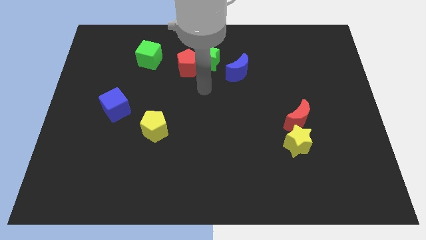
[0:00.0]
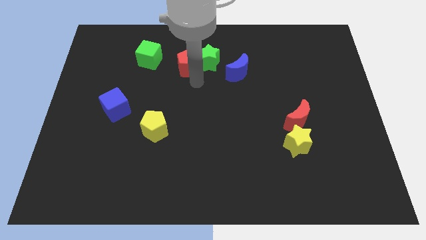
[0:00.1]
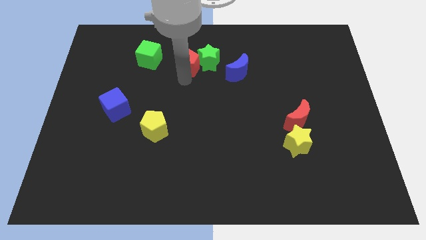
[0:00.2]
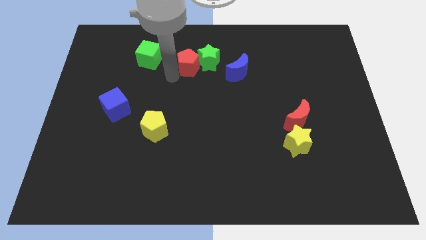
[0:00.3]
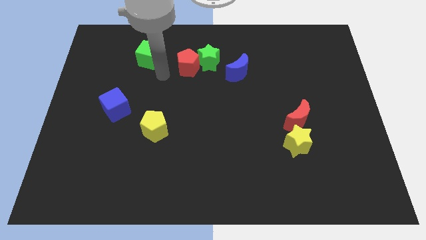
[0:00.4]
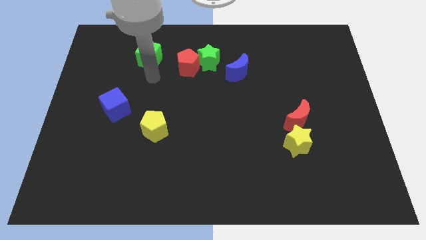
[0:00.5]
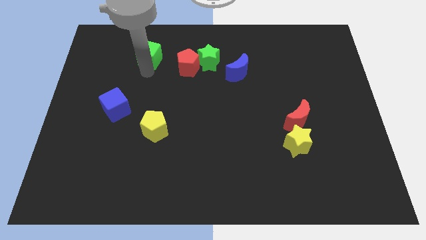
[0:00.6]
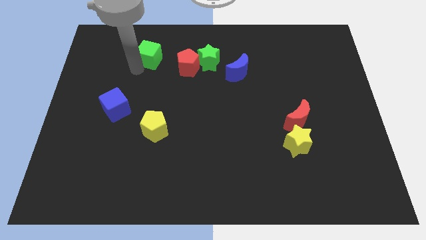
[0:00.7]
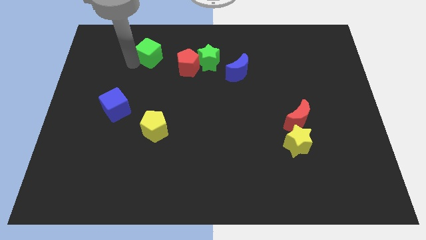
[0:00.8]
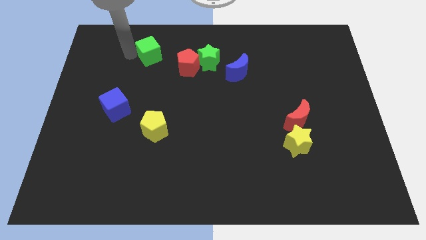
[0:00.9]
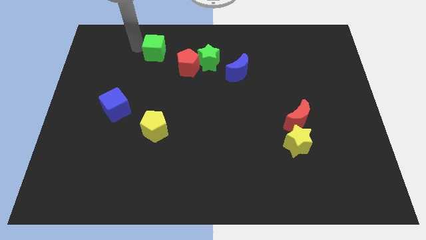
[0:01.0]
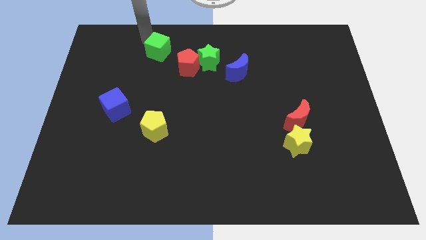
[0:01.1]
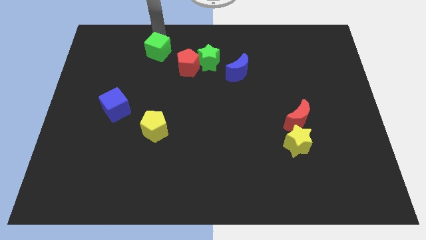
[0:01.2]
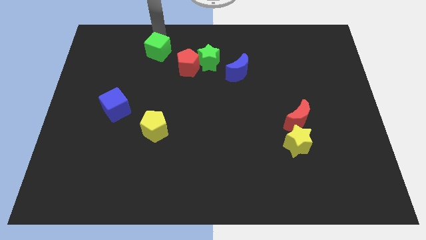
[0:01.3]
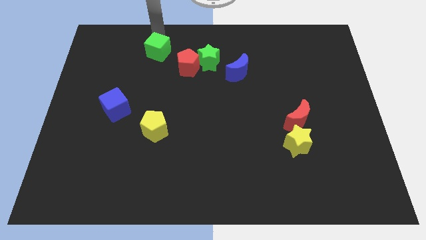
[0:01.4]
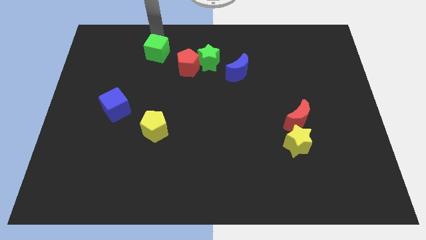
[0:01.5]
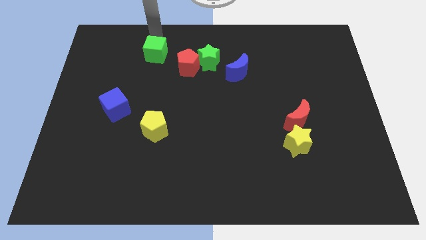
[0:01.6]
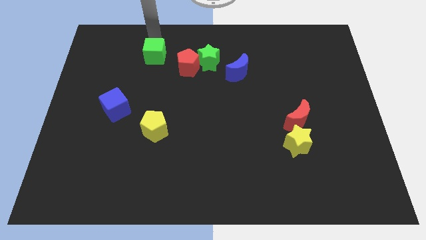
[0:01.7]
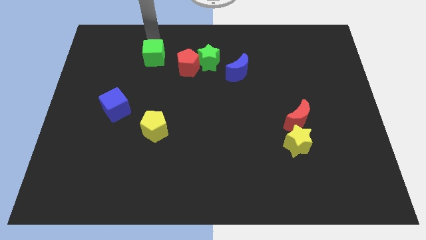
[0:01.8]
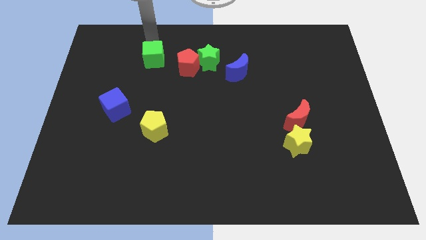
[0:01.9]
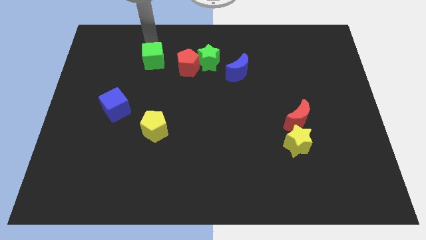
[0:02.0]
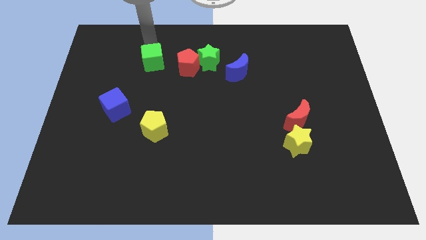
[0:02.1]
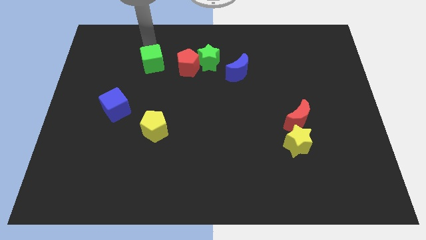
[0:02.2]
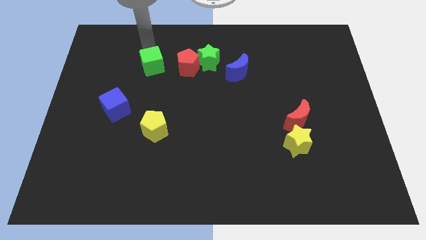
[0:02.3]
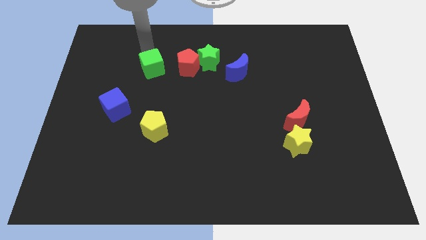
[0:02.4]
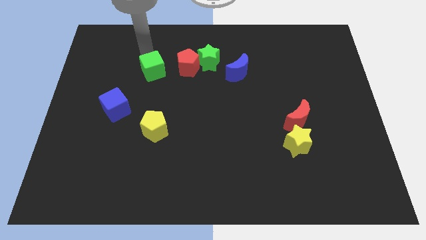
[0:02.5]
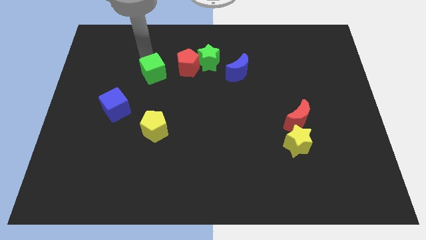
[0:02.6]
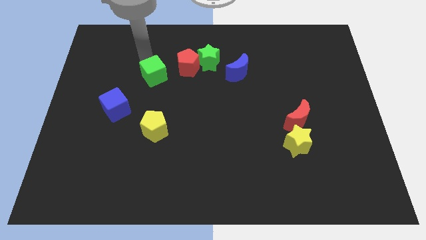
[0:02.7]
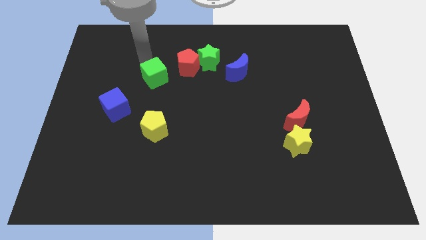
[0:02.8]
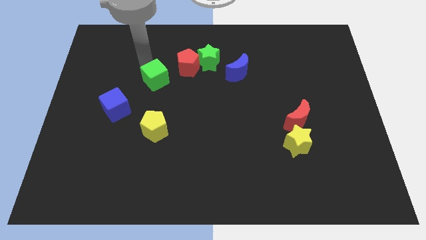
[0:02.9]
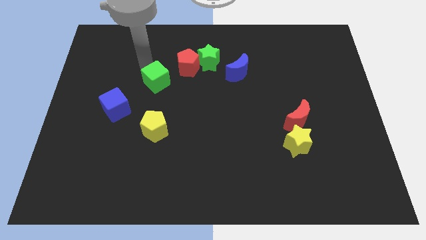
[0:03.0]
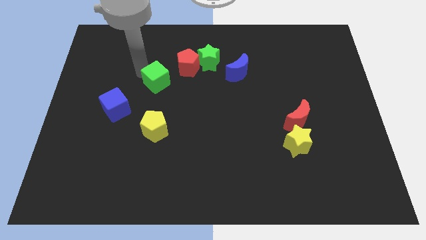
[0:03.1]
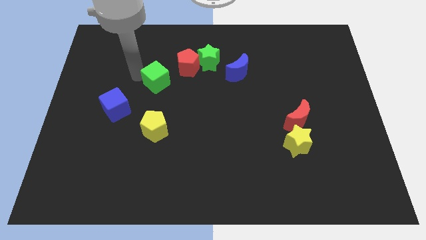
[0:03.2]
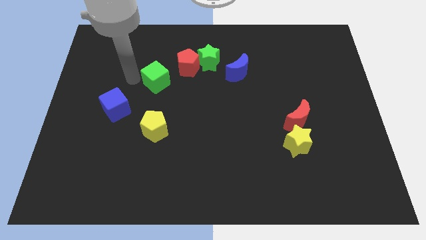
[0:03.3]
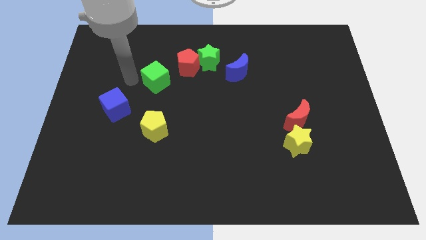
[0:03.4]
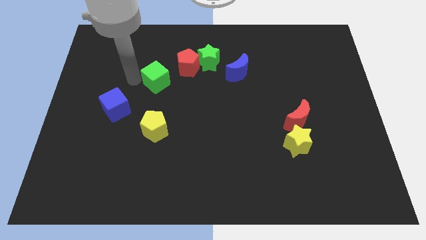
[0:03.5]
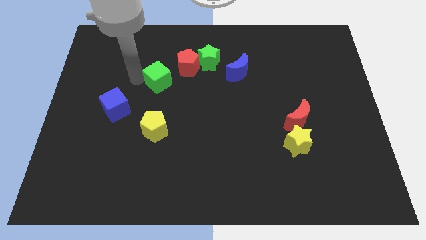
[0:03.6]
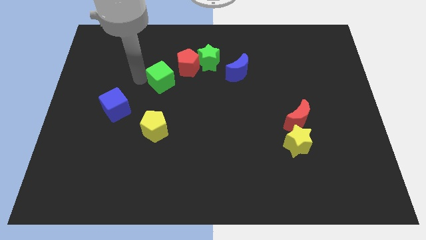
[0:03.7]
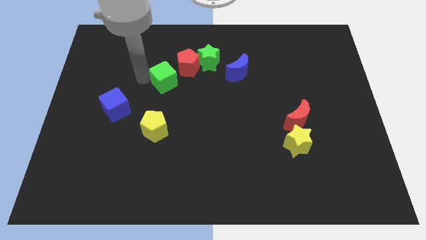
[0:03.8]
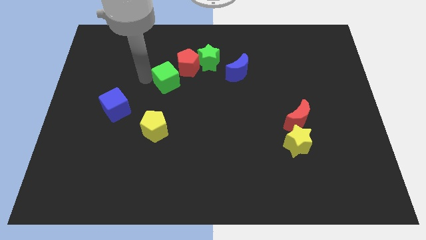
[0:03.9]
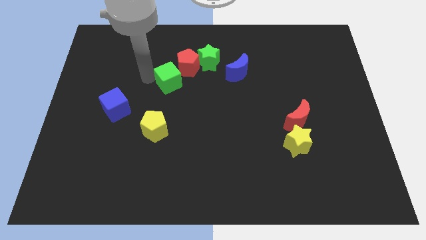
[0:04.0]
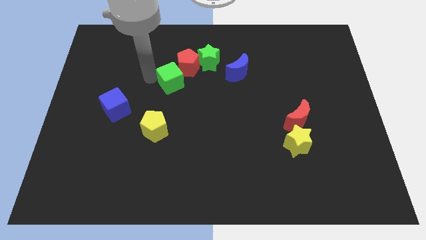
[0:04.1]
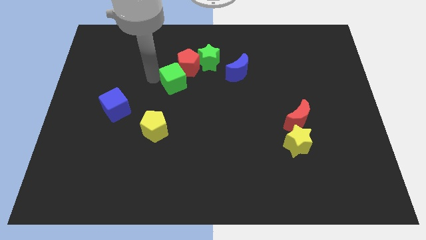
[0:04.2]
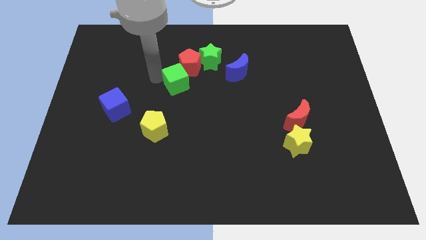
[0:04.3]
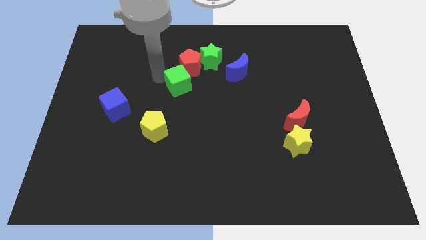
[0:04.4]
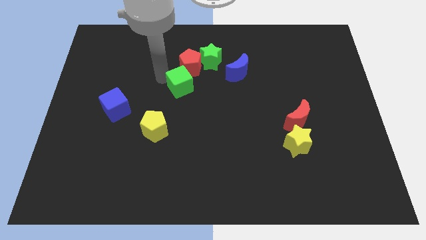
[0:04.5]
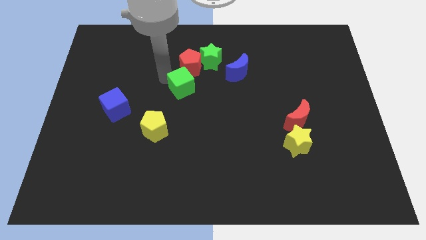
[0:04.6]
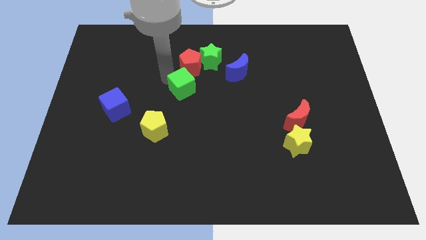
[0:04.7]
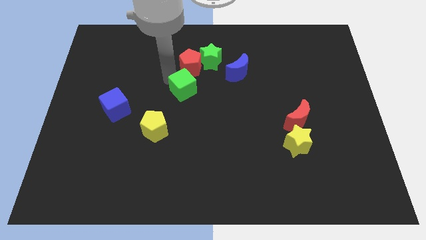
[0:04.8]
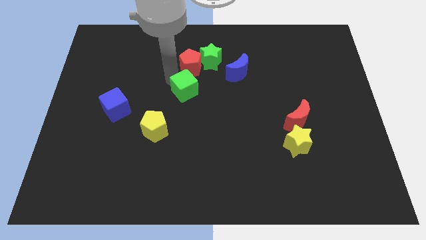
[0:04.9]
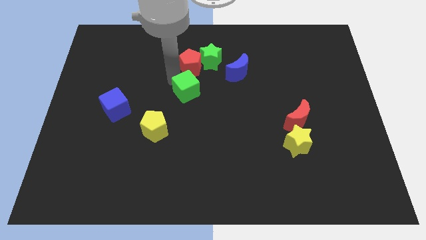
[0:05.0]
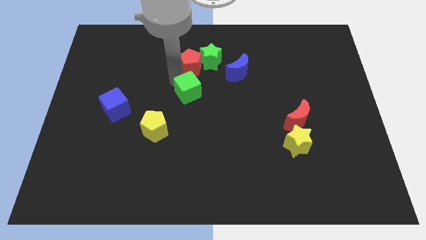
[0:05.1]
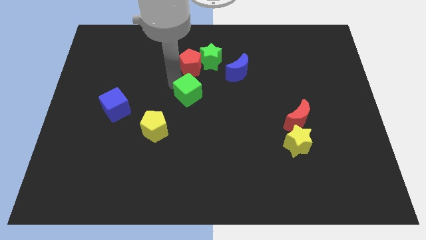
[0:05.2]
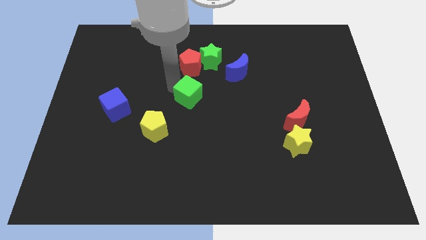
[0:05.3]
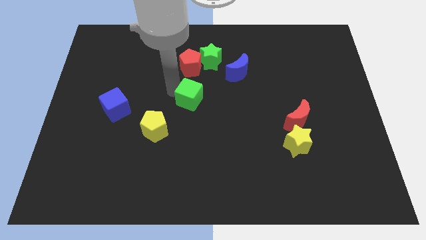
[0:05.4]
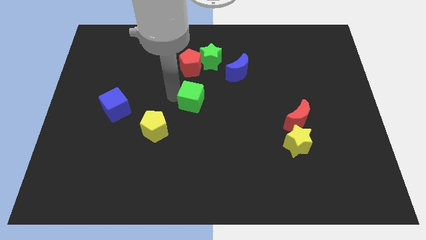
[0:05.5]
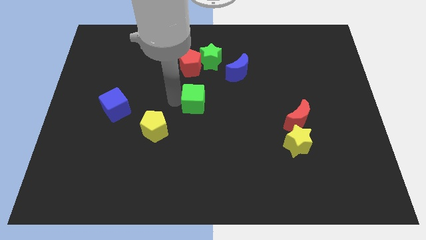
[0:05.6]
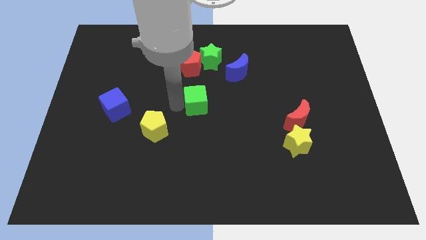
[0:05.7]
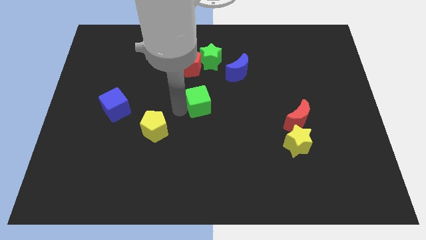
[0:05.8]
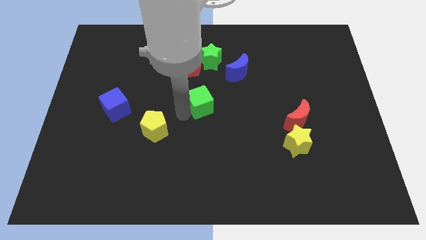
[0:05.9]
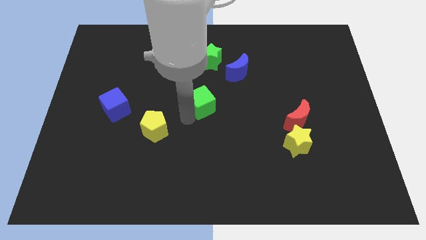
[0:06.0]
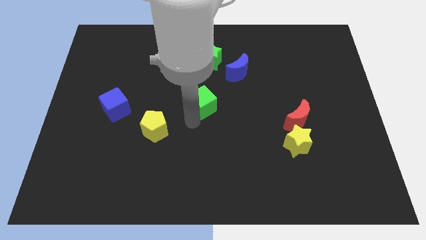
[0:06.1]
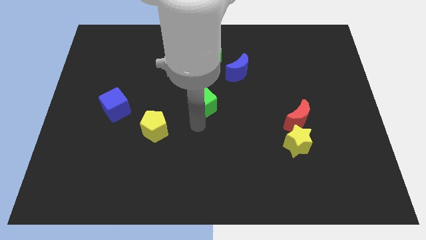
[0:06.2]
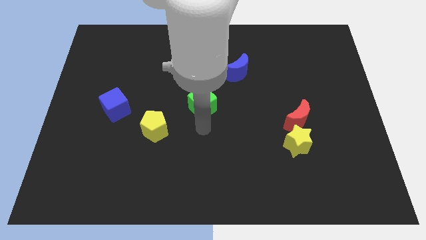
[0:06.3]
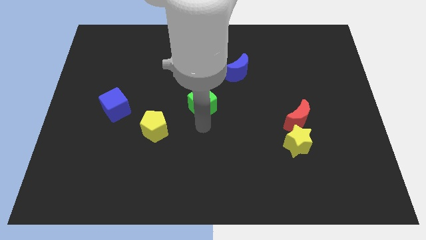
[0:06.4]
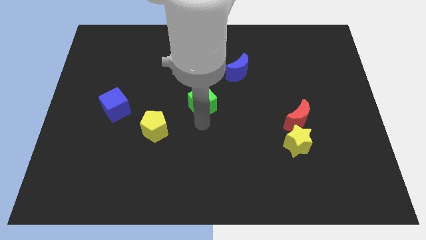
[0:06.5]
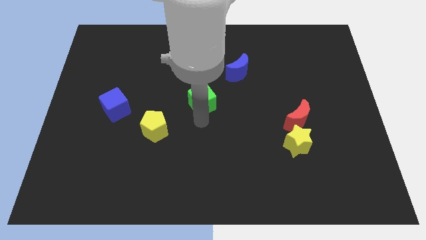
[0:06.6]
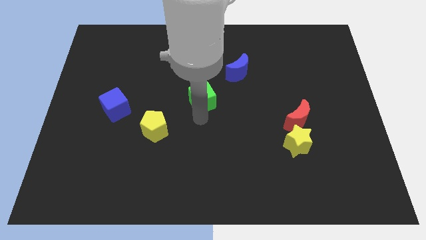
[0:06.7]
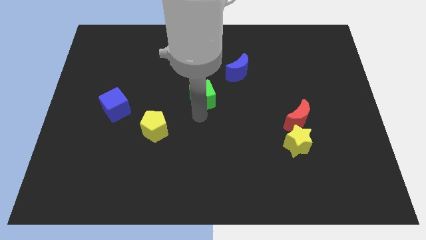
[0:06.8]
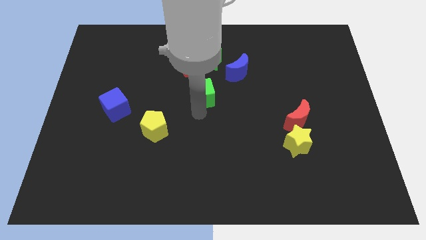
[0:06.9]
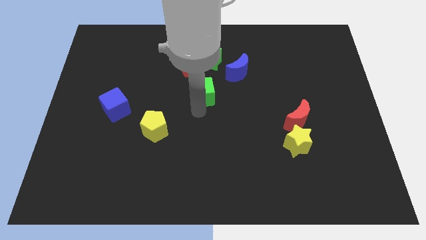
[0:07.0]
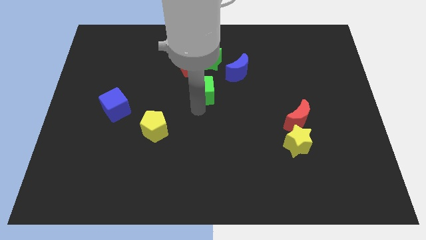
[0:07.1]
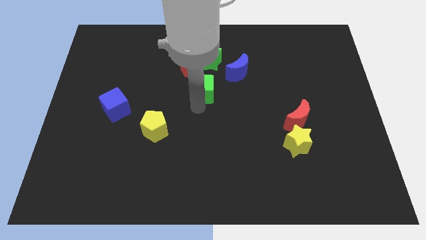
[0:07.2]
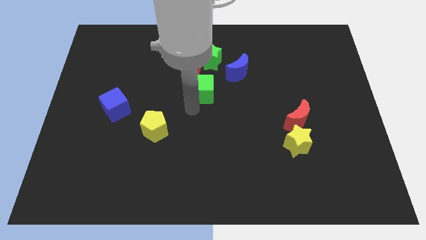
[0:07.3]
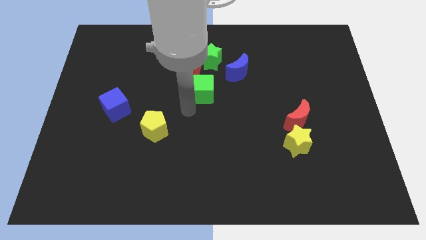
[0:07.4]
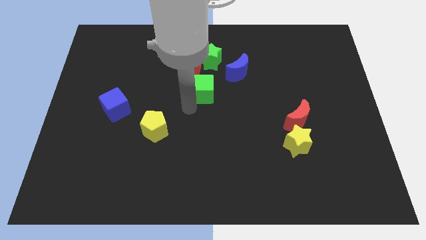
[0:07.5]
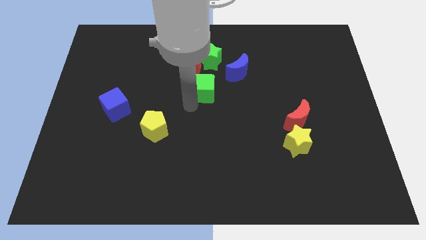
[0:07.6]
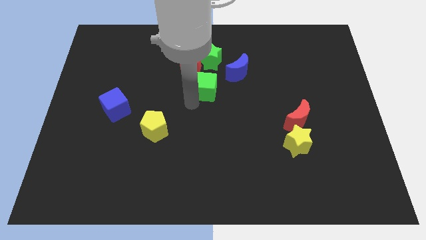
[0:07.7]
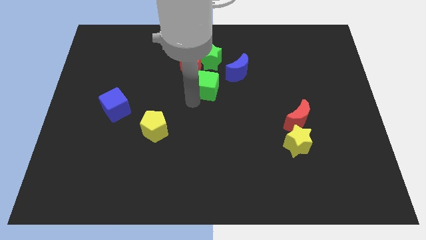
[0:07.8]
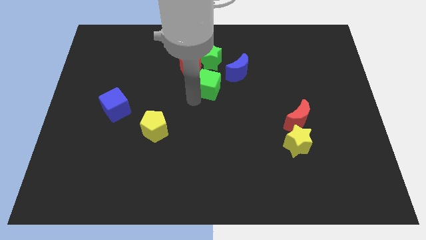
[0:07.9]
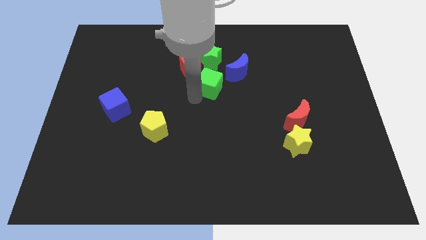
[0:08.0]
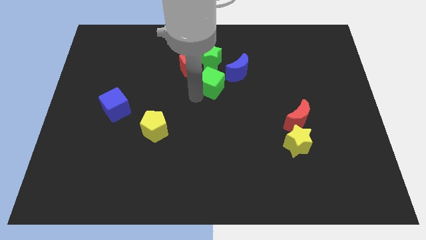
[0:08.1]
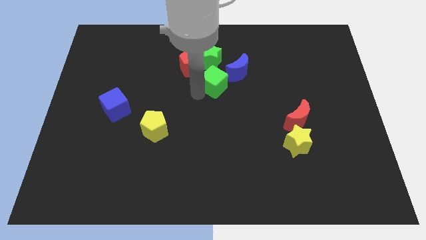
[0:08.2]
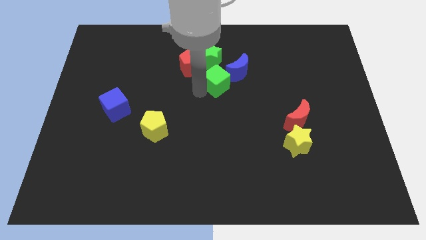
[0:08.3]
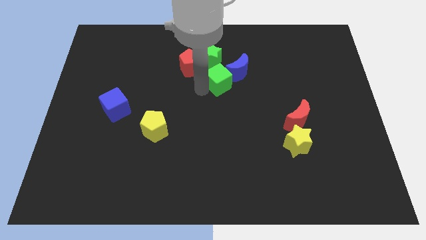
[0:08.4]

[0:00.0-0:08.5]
move the green cube next to the blue moon
